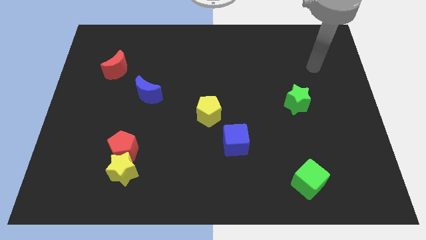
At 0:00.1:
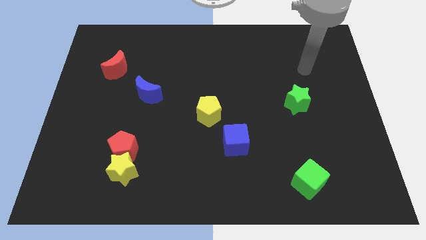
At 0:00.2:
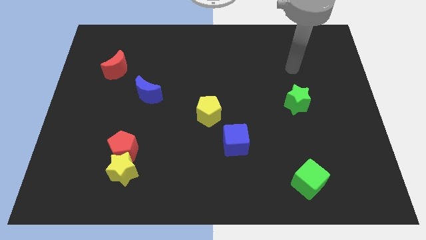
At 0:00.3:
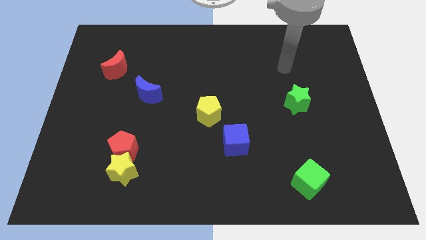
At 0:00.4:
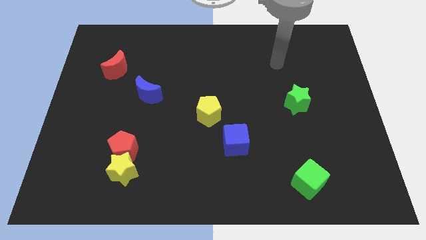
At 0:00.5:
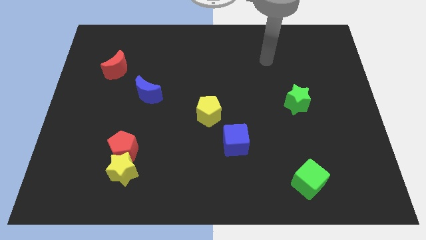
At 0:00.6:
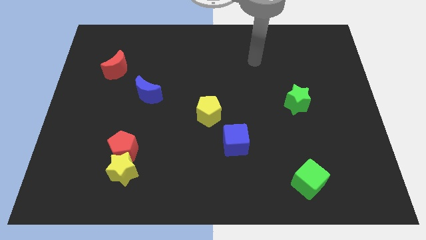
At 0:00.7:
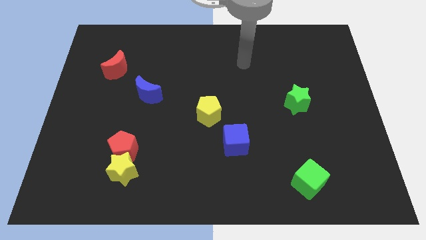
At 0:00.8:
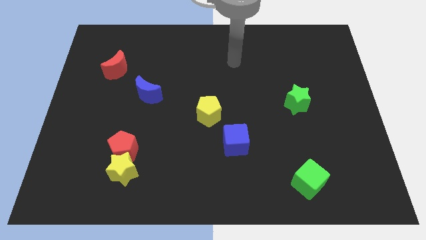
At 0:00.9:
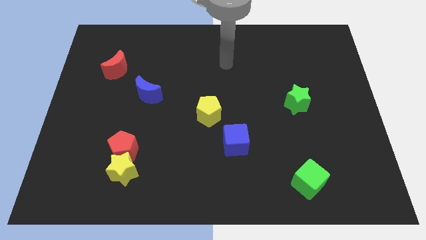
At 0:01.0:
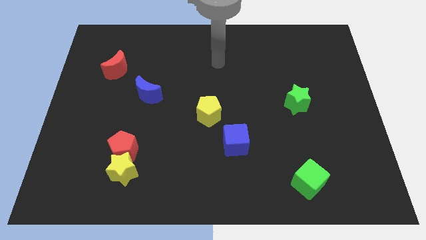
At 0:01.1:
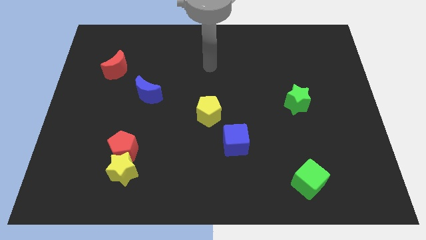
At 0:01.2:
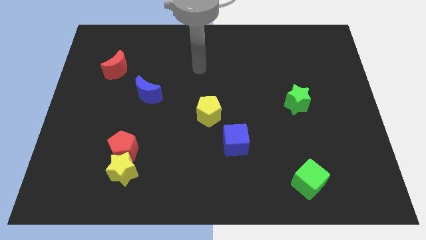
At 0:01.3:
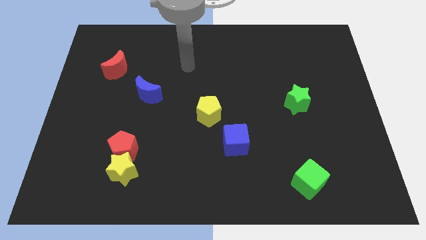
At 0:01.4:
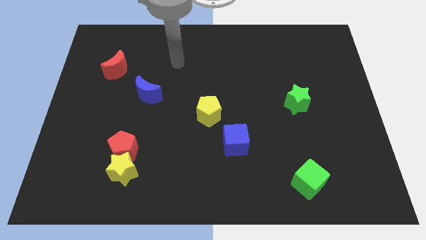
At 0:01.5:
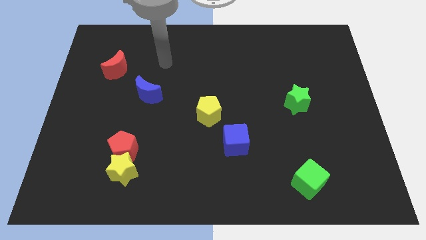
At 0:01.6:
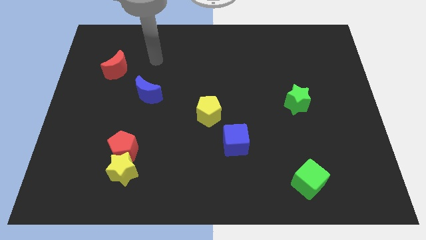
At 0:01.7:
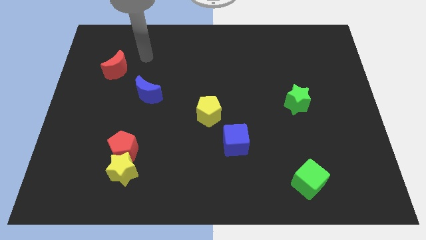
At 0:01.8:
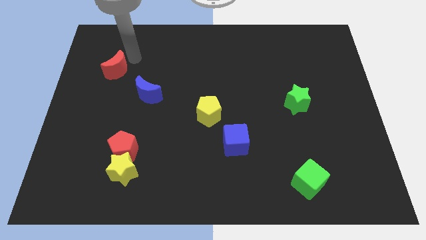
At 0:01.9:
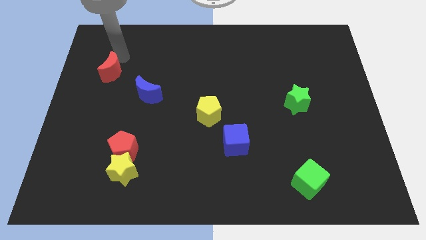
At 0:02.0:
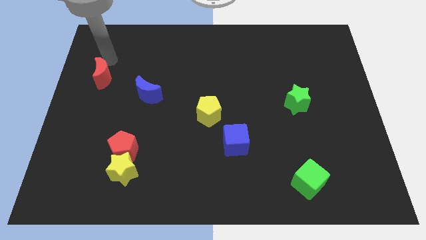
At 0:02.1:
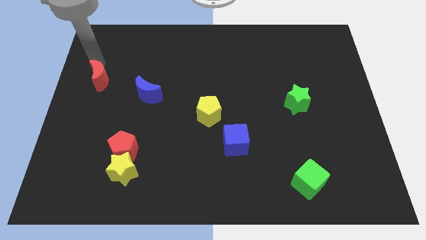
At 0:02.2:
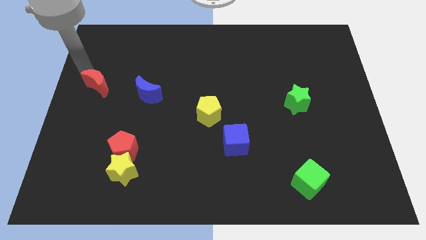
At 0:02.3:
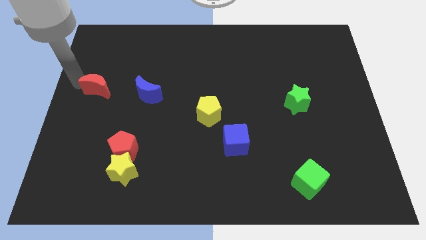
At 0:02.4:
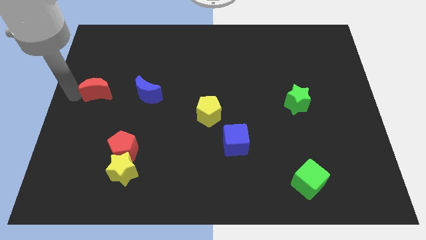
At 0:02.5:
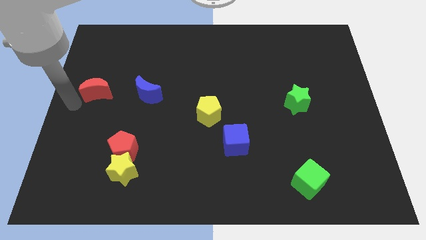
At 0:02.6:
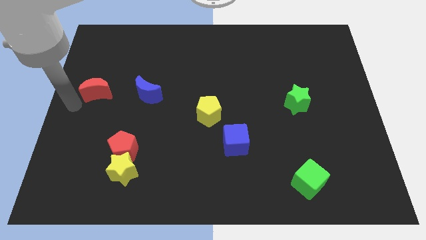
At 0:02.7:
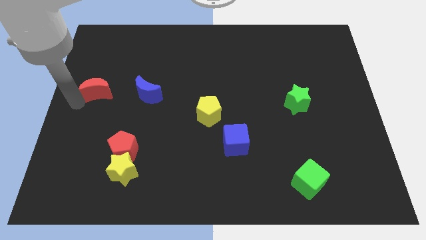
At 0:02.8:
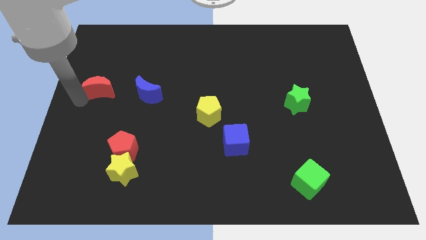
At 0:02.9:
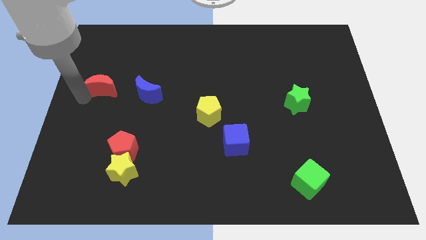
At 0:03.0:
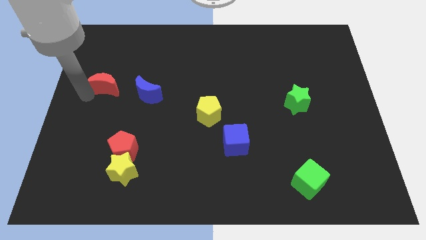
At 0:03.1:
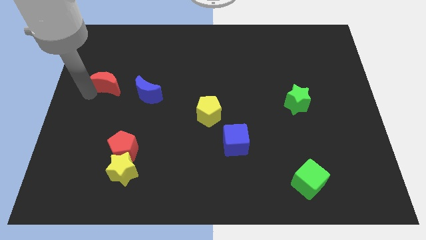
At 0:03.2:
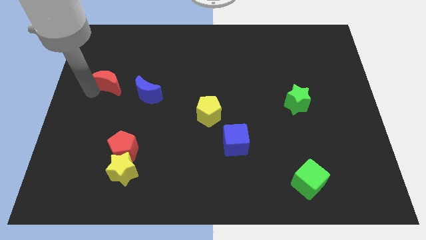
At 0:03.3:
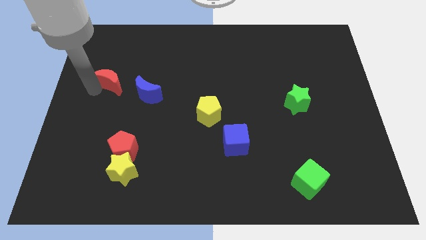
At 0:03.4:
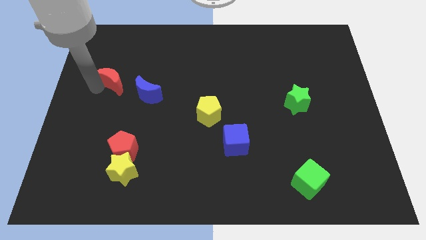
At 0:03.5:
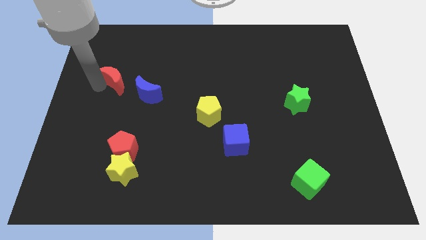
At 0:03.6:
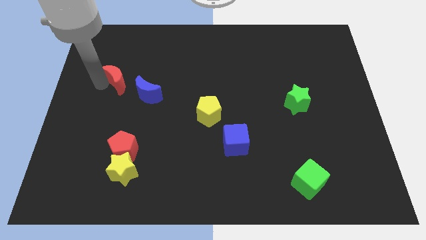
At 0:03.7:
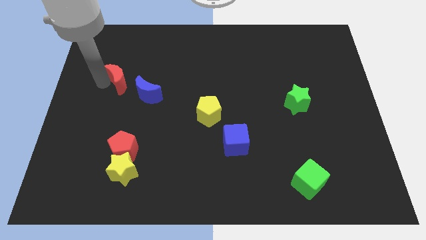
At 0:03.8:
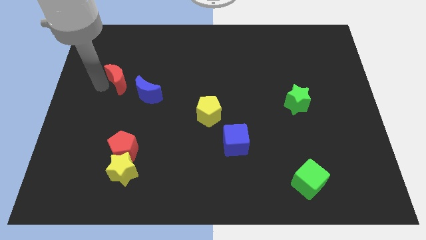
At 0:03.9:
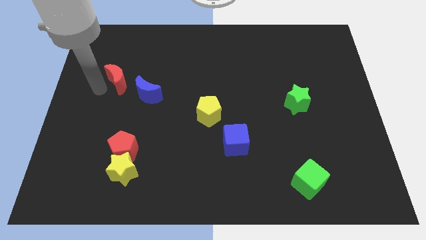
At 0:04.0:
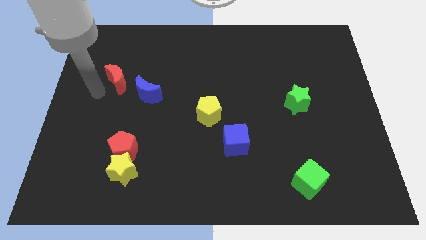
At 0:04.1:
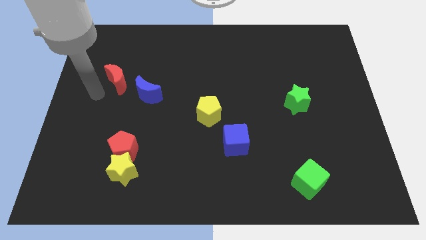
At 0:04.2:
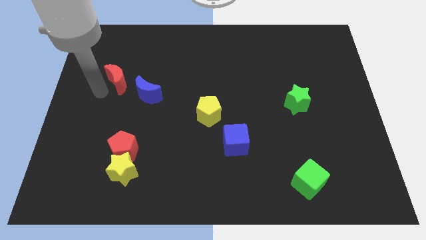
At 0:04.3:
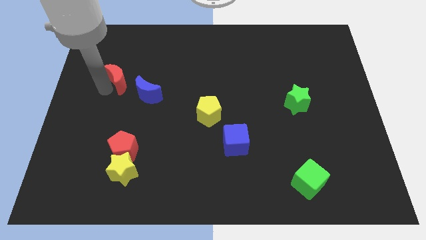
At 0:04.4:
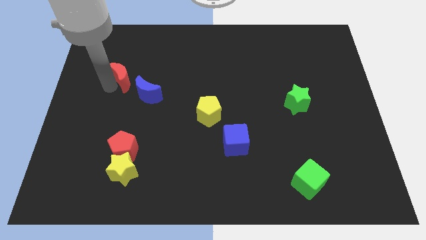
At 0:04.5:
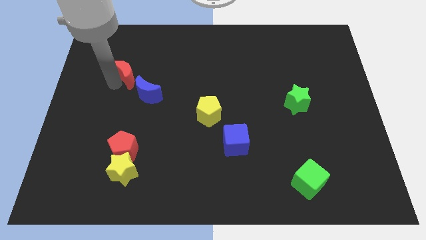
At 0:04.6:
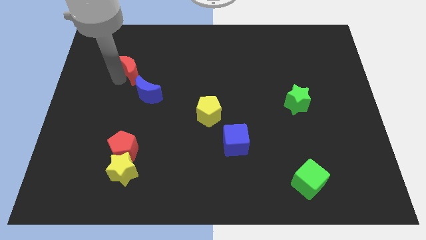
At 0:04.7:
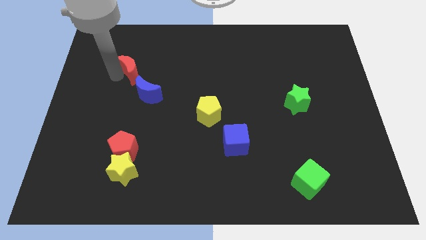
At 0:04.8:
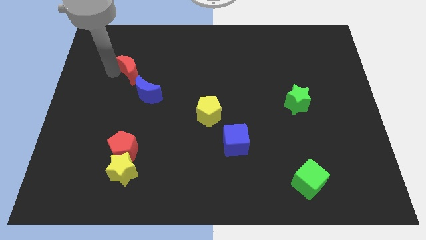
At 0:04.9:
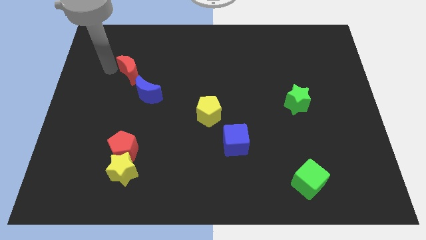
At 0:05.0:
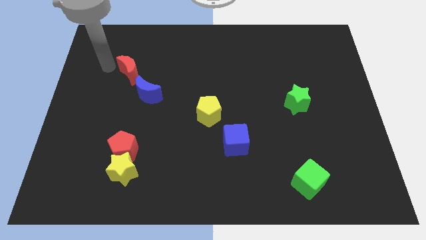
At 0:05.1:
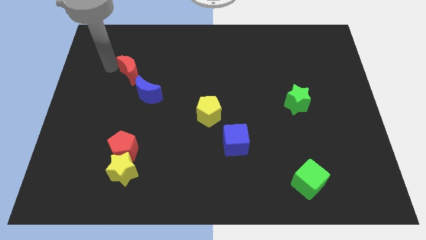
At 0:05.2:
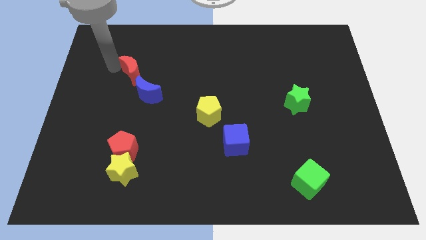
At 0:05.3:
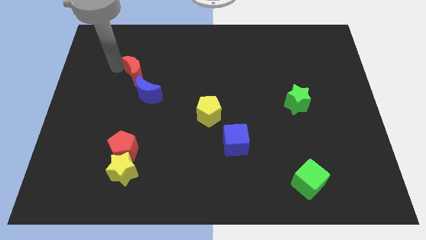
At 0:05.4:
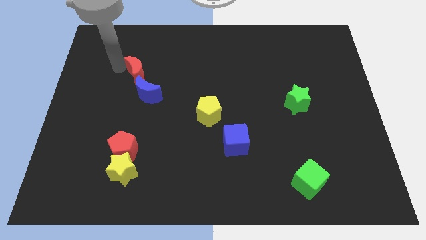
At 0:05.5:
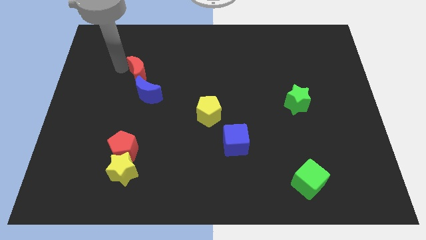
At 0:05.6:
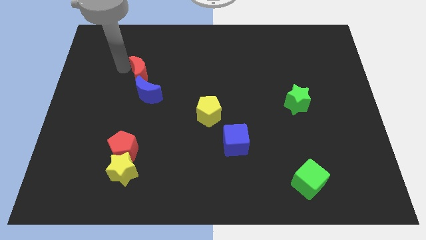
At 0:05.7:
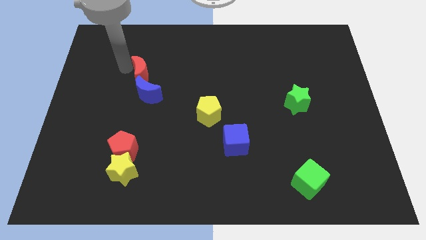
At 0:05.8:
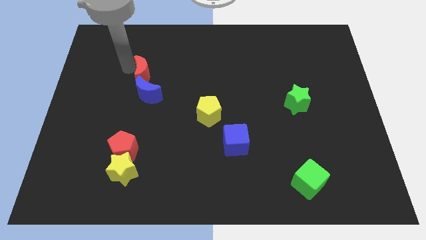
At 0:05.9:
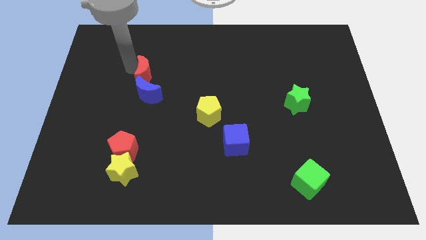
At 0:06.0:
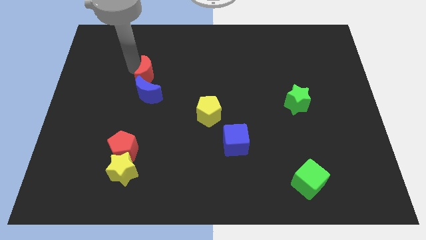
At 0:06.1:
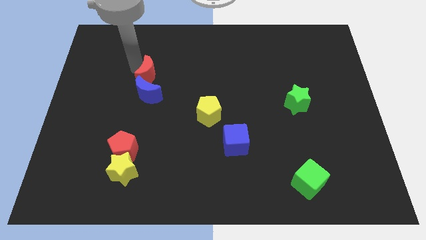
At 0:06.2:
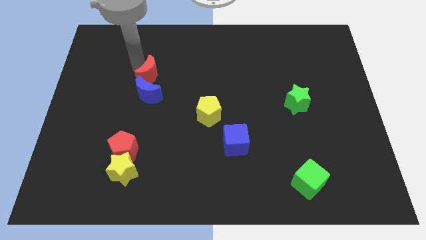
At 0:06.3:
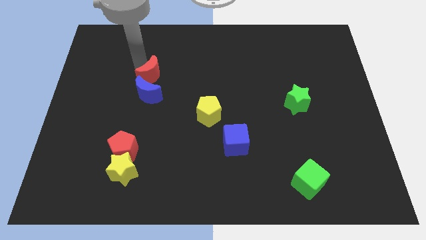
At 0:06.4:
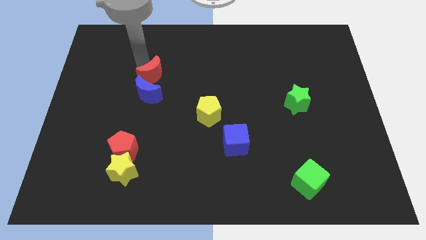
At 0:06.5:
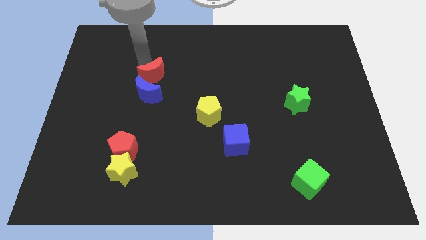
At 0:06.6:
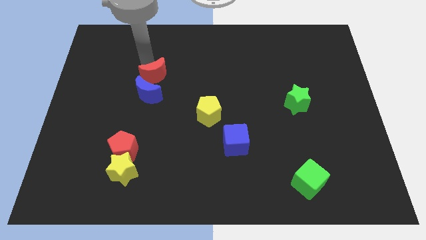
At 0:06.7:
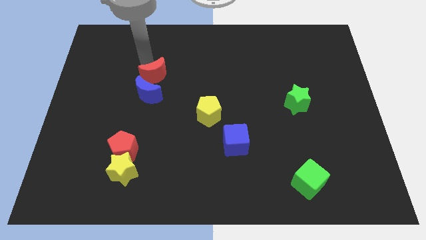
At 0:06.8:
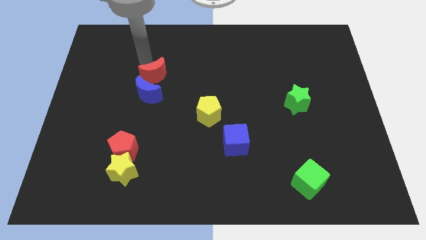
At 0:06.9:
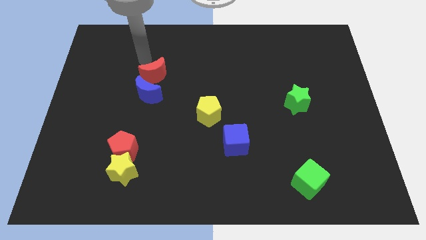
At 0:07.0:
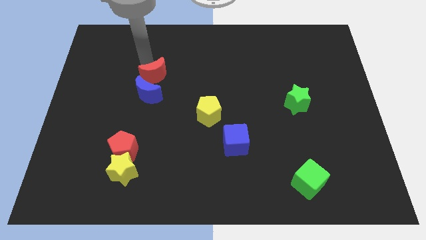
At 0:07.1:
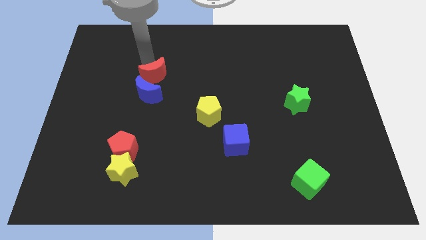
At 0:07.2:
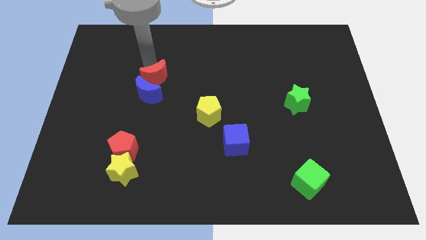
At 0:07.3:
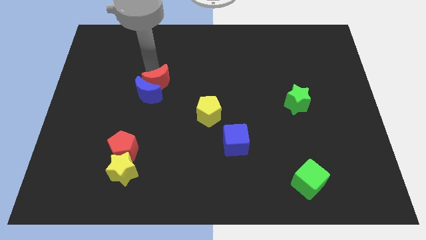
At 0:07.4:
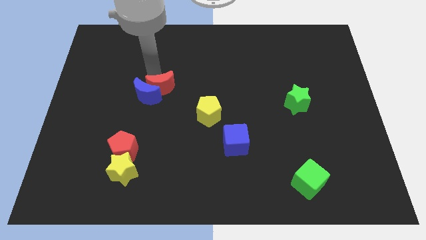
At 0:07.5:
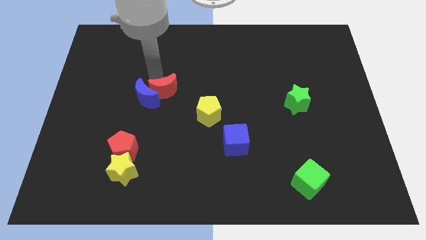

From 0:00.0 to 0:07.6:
put the red moon to the middle of the board
